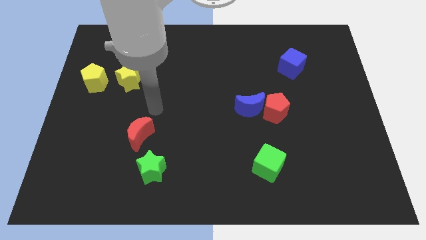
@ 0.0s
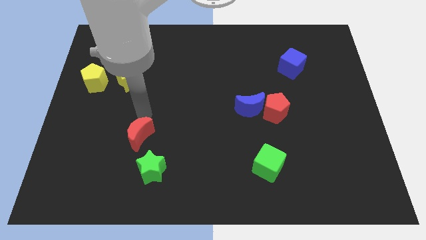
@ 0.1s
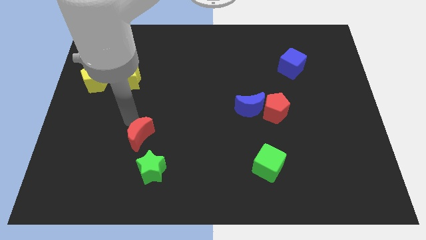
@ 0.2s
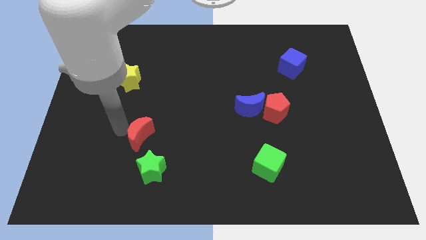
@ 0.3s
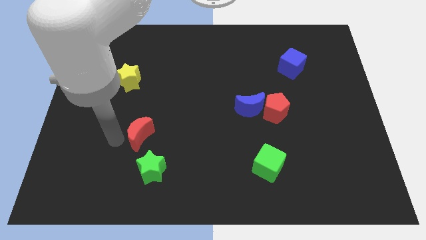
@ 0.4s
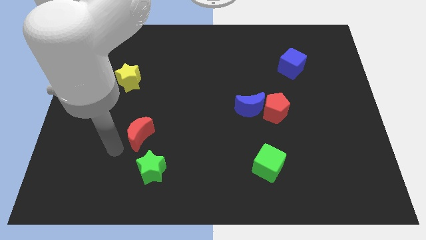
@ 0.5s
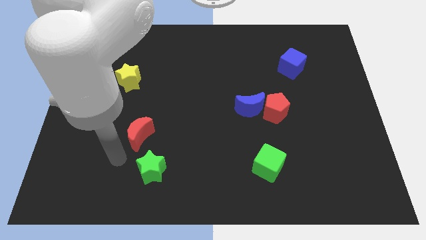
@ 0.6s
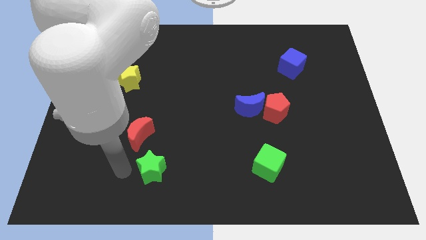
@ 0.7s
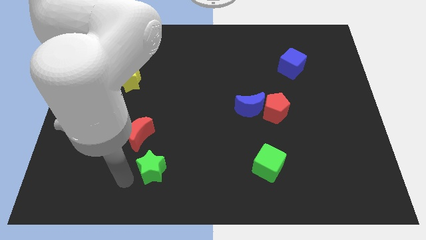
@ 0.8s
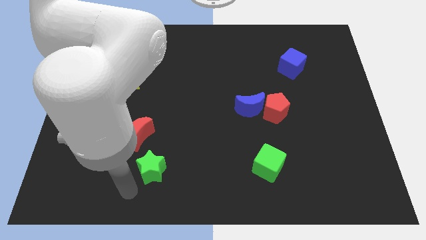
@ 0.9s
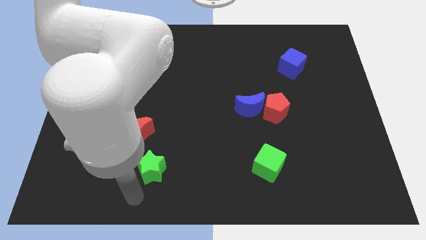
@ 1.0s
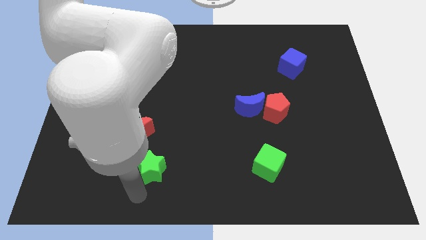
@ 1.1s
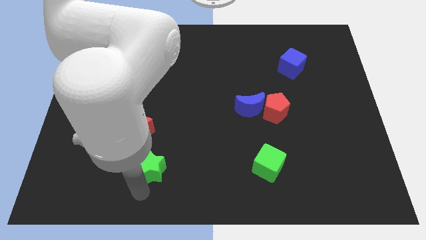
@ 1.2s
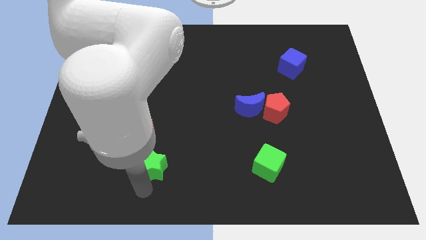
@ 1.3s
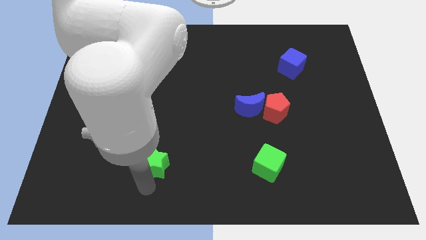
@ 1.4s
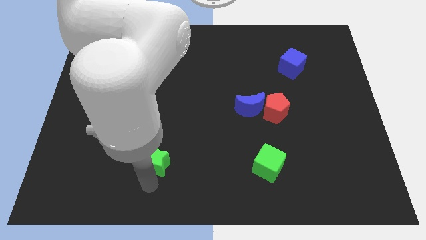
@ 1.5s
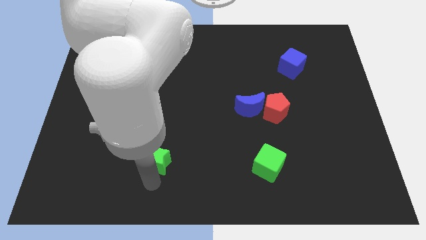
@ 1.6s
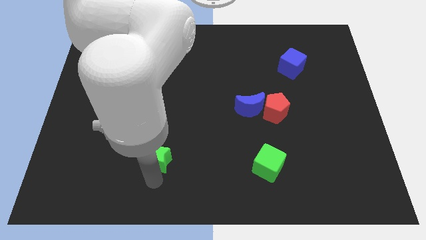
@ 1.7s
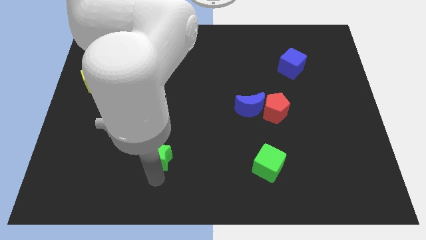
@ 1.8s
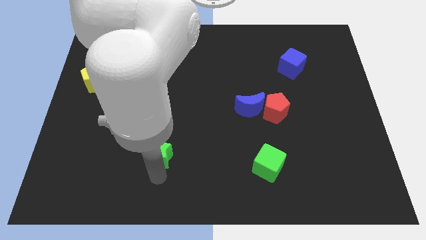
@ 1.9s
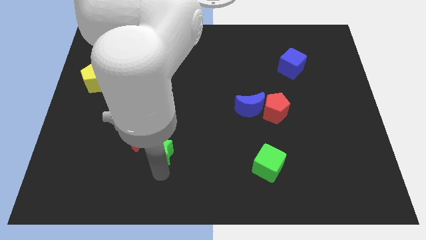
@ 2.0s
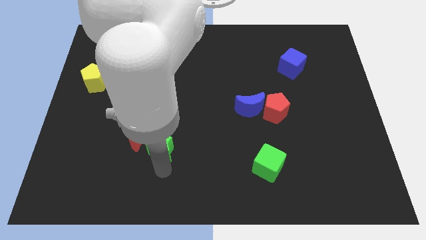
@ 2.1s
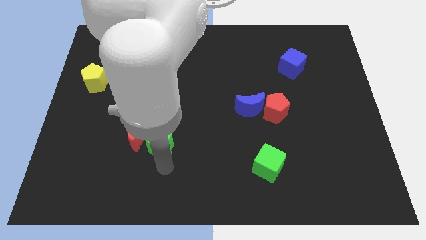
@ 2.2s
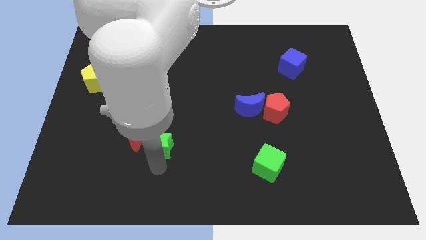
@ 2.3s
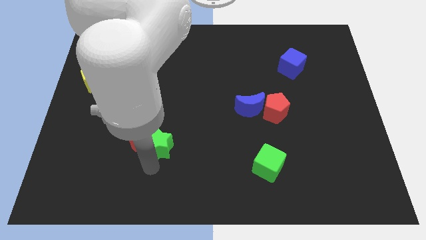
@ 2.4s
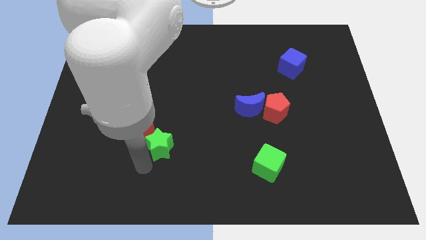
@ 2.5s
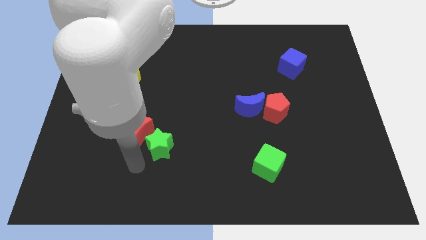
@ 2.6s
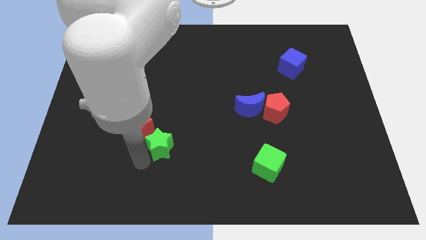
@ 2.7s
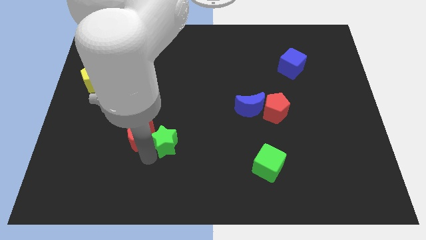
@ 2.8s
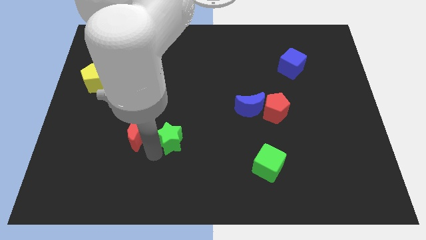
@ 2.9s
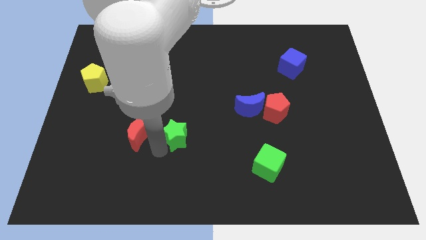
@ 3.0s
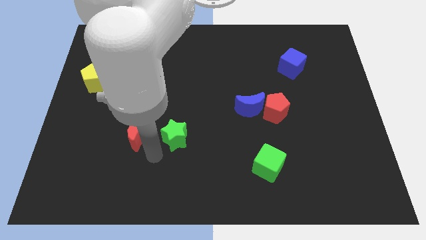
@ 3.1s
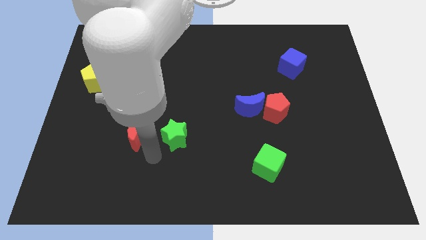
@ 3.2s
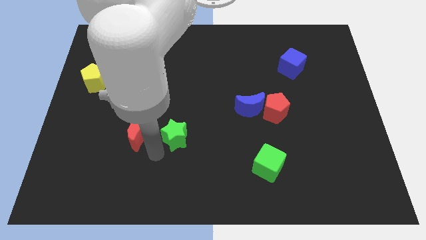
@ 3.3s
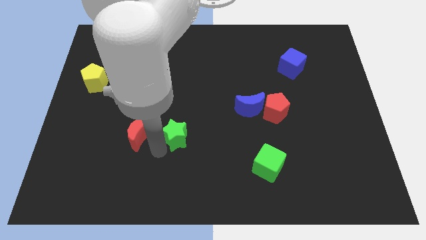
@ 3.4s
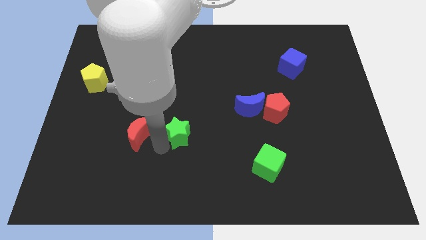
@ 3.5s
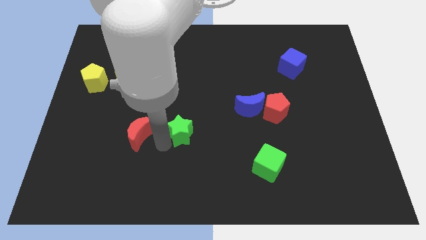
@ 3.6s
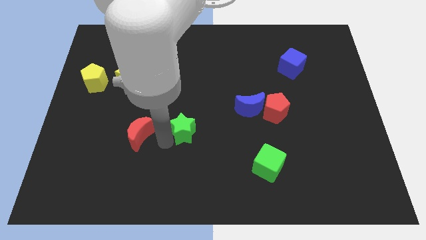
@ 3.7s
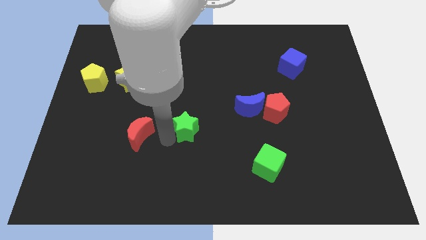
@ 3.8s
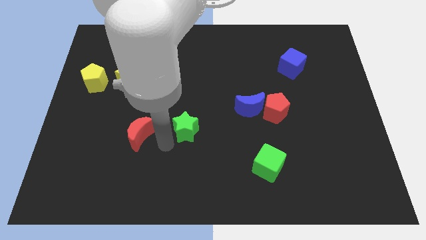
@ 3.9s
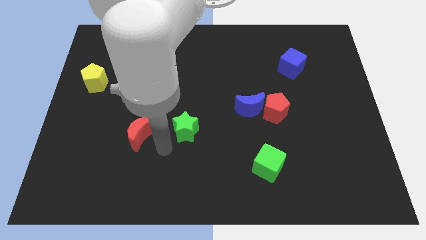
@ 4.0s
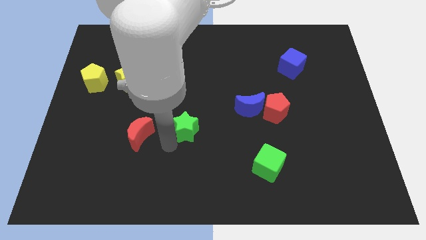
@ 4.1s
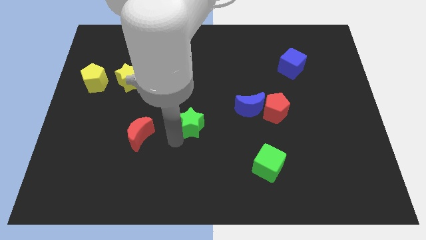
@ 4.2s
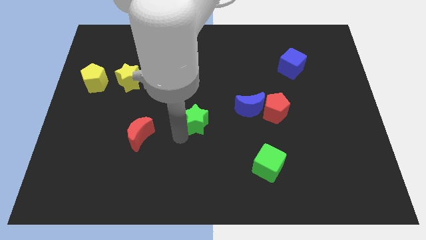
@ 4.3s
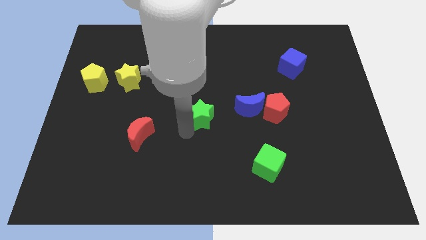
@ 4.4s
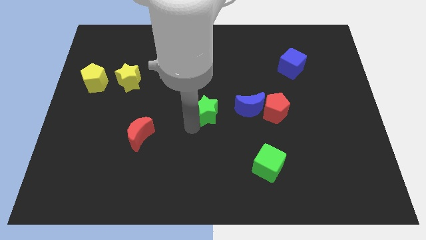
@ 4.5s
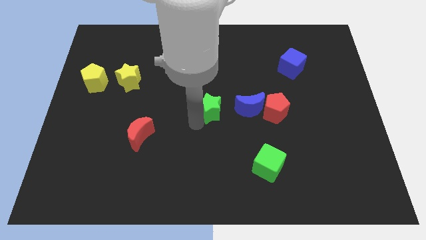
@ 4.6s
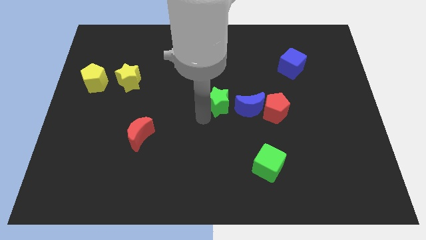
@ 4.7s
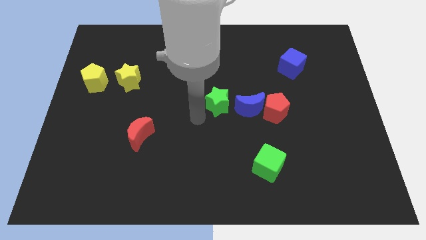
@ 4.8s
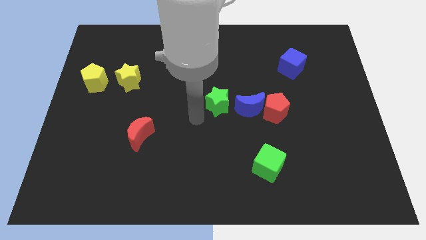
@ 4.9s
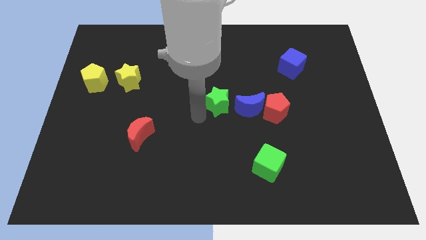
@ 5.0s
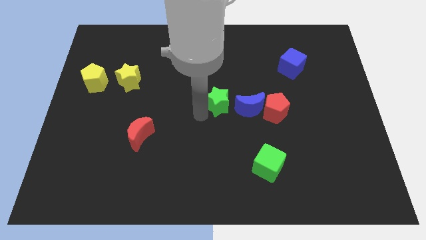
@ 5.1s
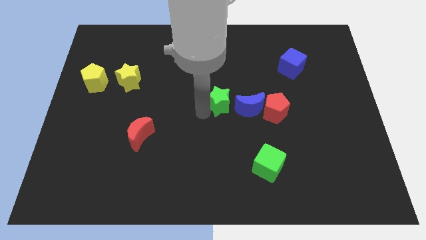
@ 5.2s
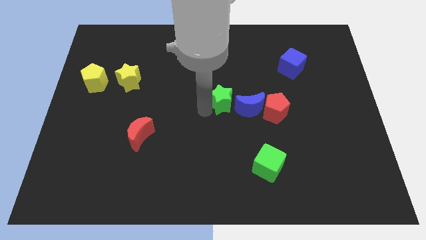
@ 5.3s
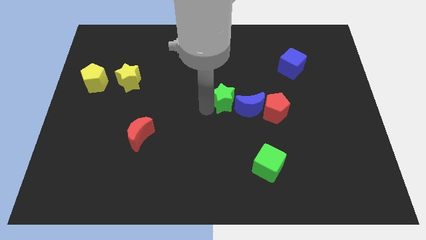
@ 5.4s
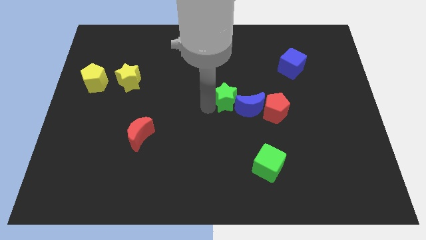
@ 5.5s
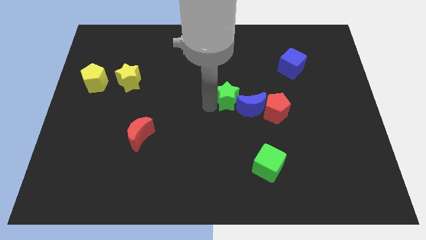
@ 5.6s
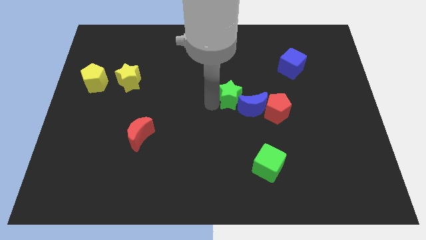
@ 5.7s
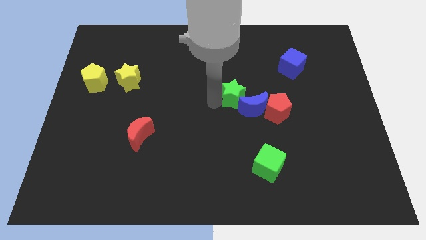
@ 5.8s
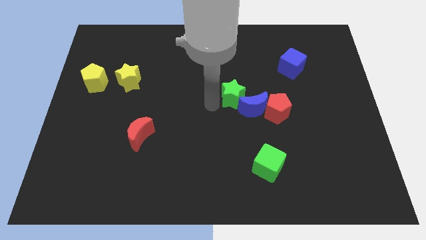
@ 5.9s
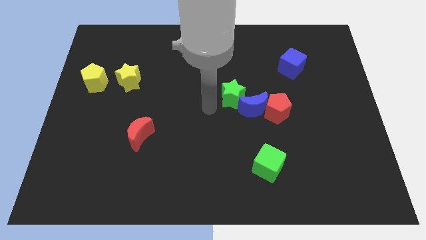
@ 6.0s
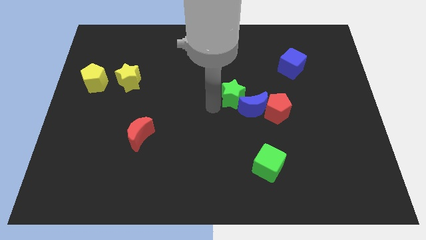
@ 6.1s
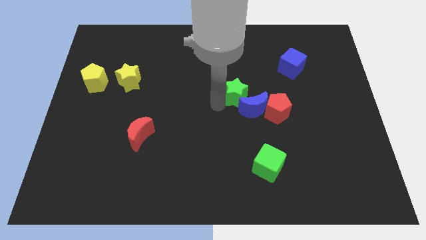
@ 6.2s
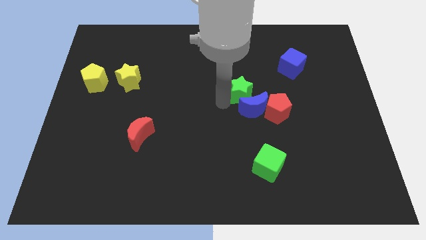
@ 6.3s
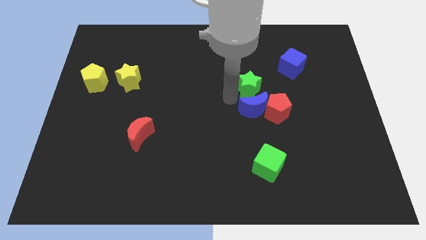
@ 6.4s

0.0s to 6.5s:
put the green star diagonally up and to the right of the blue moon
